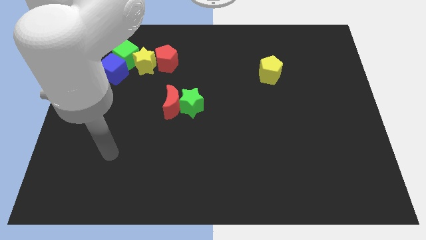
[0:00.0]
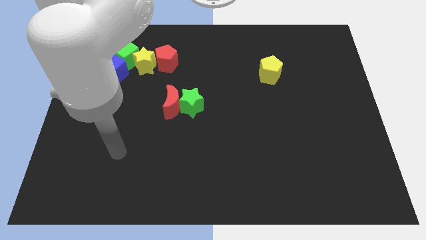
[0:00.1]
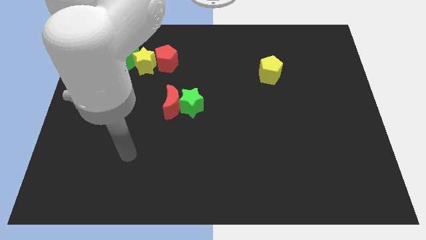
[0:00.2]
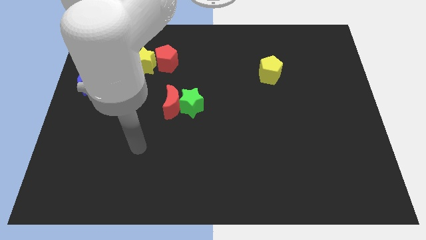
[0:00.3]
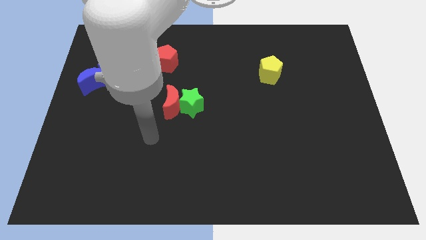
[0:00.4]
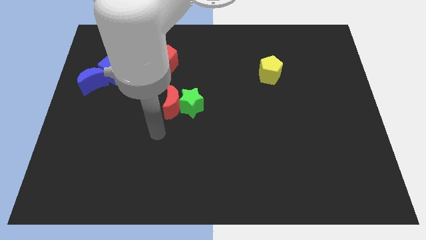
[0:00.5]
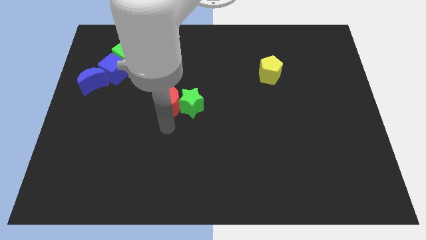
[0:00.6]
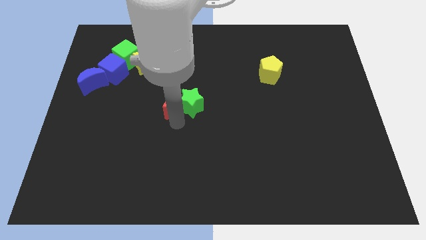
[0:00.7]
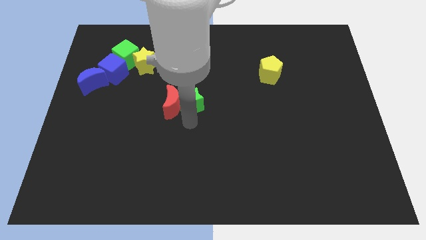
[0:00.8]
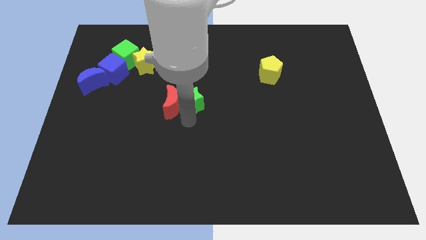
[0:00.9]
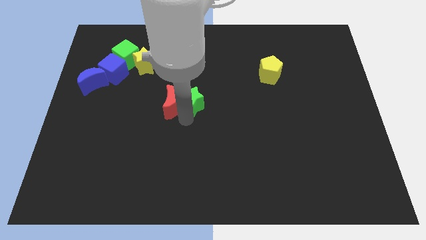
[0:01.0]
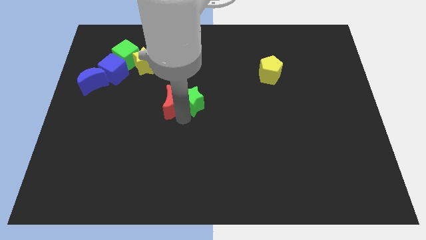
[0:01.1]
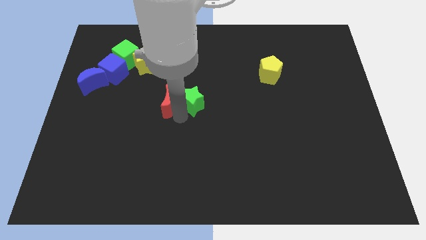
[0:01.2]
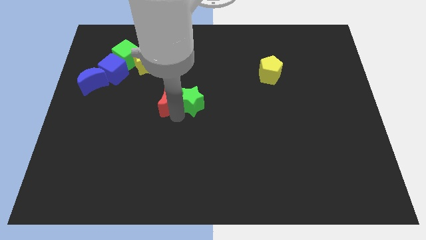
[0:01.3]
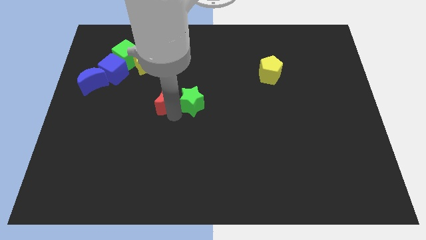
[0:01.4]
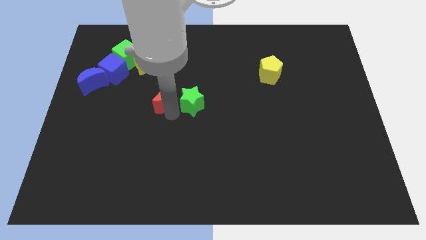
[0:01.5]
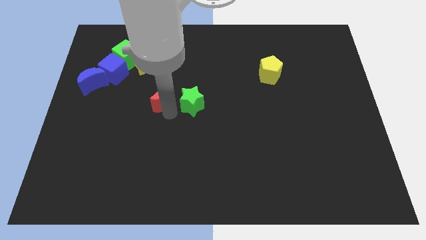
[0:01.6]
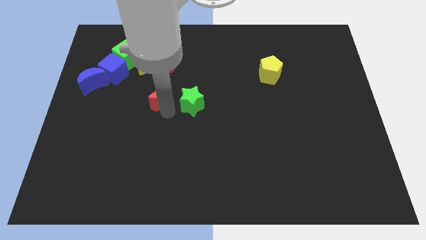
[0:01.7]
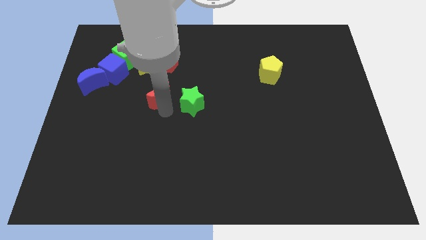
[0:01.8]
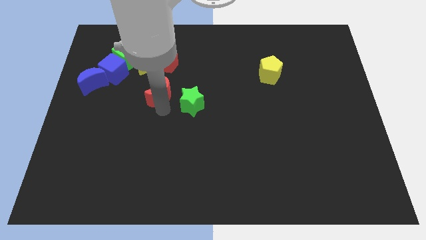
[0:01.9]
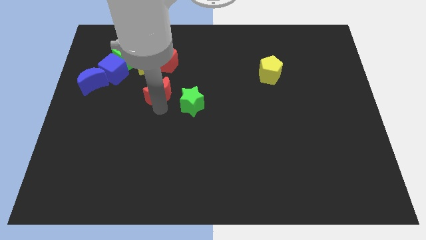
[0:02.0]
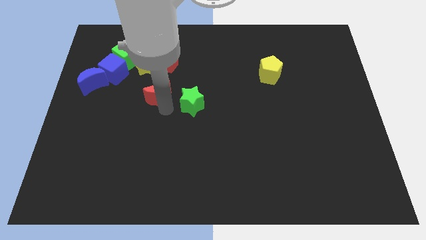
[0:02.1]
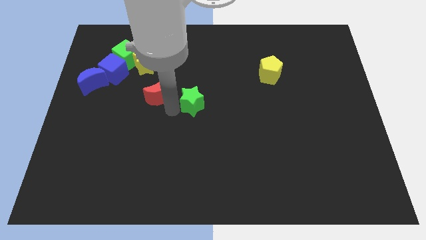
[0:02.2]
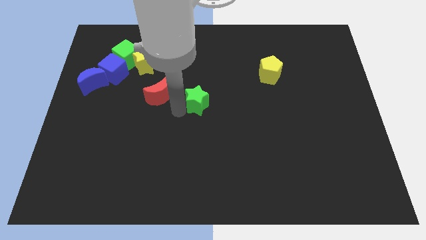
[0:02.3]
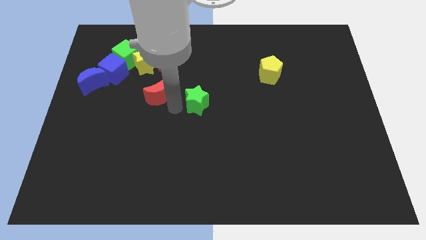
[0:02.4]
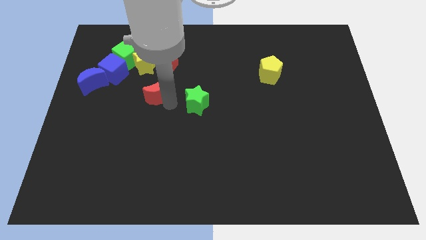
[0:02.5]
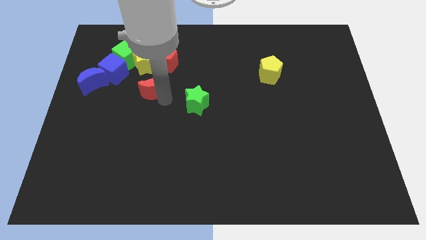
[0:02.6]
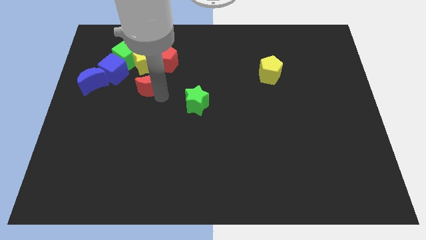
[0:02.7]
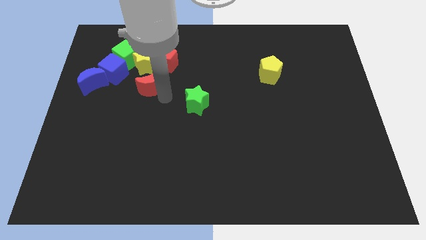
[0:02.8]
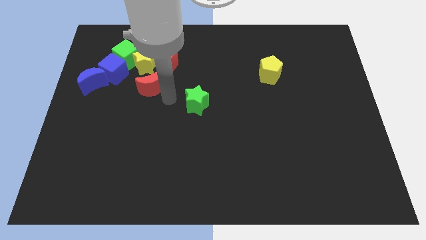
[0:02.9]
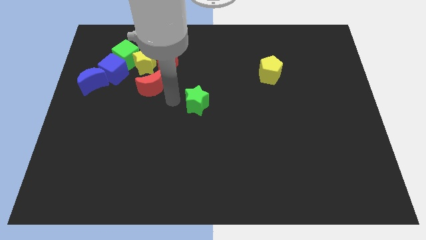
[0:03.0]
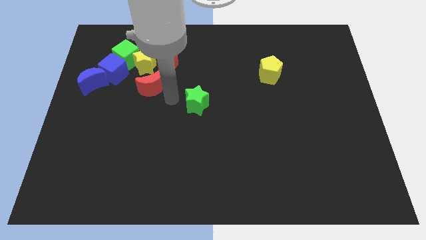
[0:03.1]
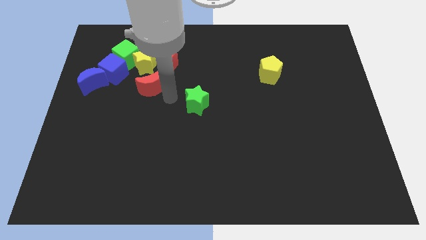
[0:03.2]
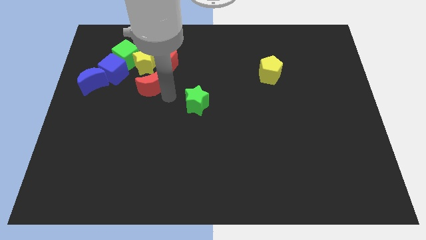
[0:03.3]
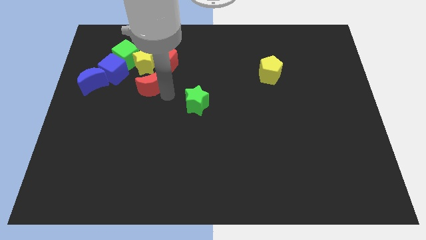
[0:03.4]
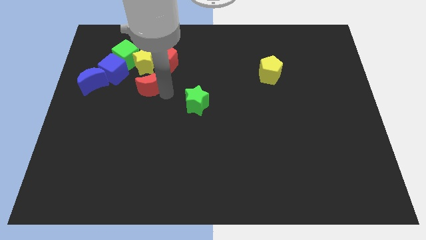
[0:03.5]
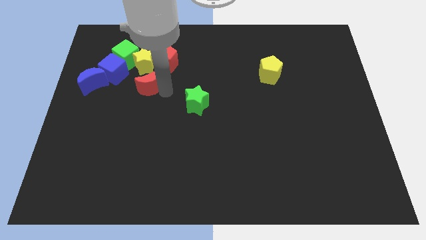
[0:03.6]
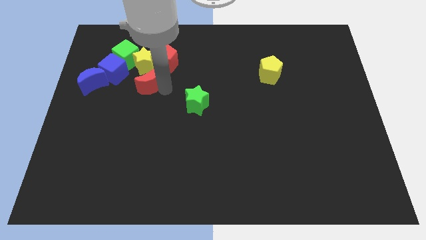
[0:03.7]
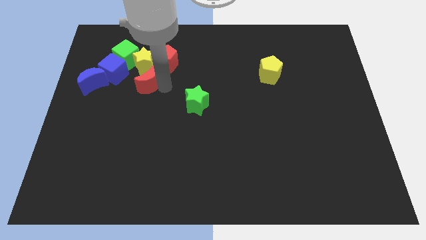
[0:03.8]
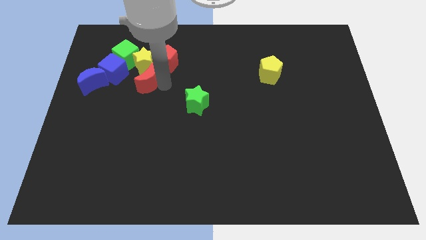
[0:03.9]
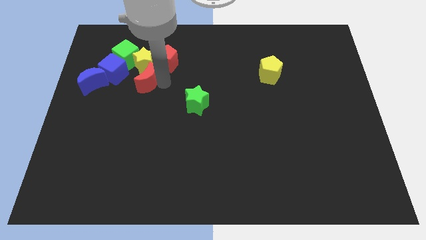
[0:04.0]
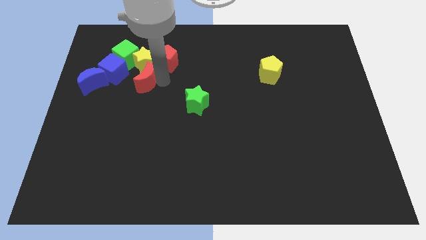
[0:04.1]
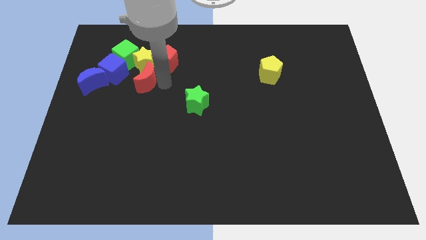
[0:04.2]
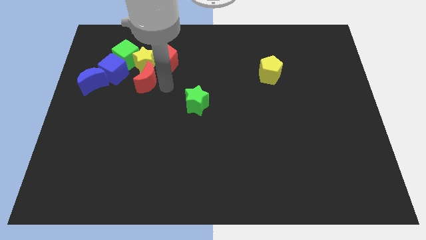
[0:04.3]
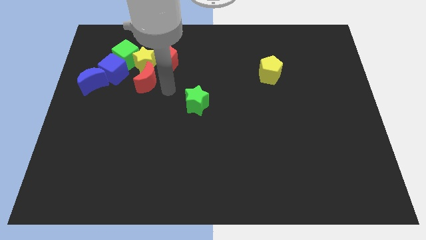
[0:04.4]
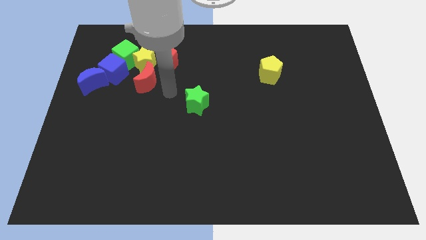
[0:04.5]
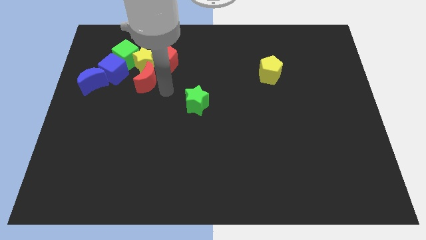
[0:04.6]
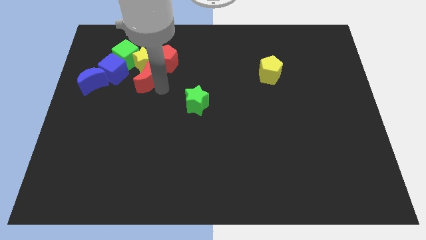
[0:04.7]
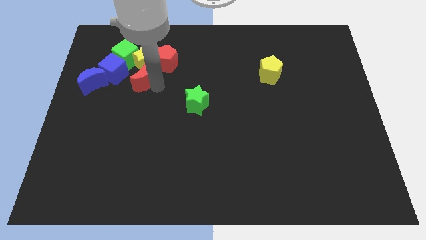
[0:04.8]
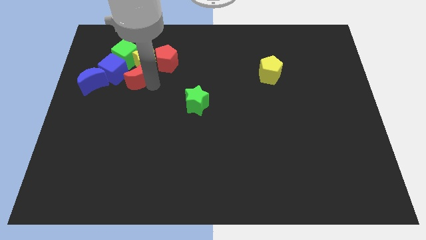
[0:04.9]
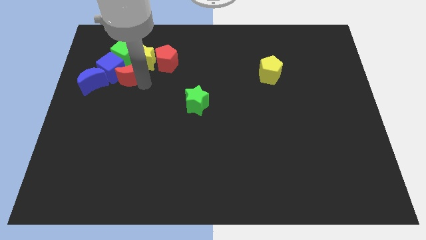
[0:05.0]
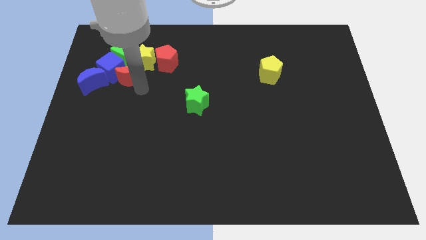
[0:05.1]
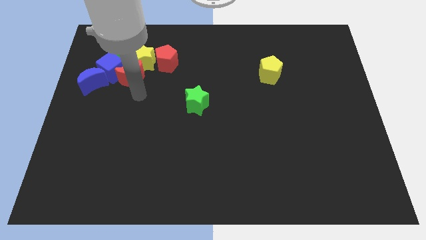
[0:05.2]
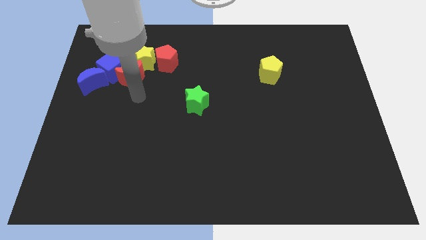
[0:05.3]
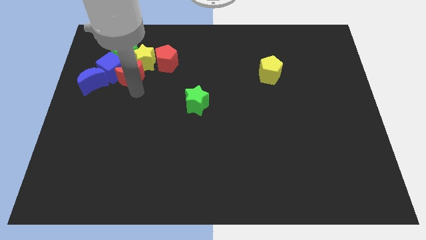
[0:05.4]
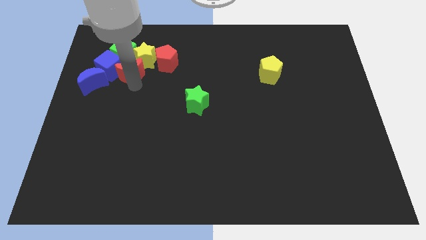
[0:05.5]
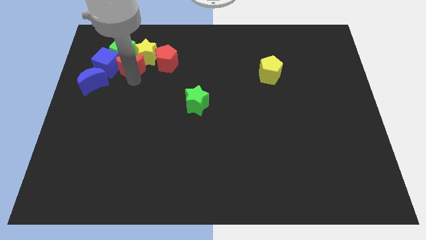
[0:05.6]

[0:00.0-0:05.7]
move the red moon close to the green cube

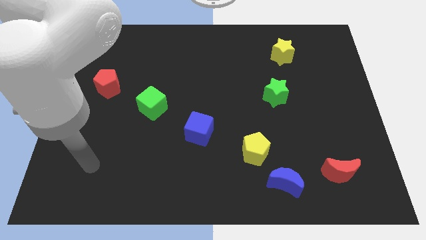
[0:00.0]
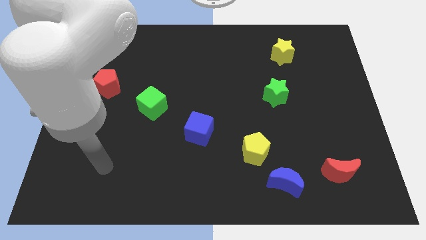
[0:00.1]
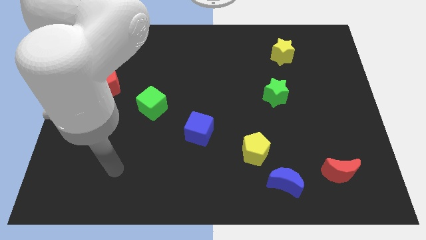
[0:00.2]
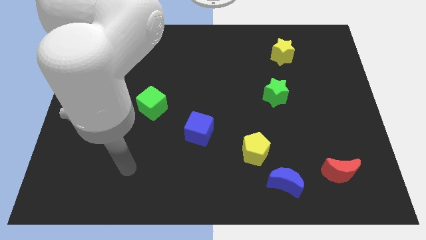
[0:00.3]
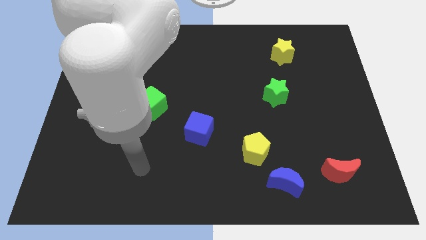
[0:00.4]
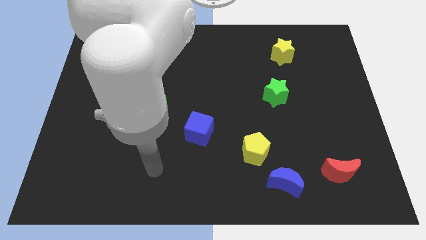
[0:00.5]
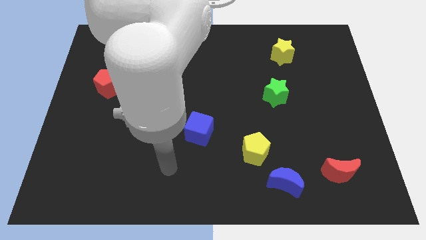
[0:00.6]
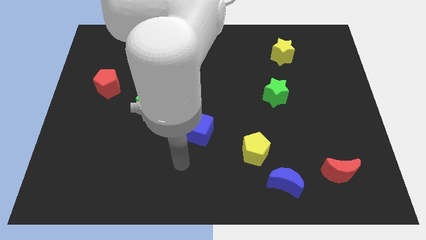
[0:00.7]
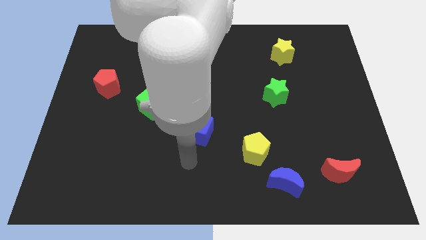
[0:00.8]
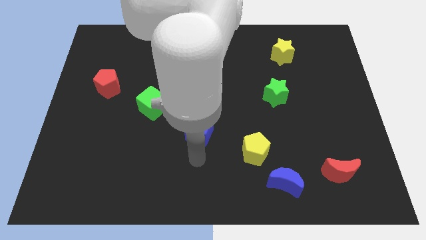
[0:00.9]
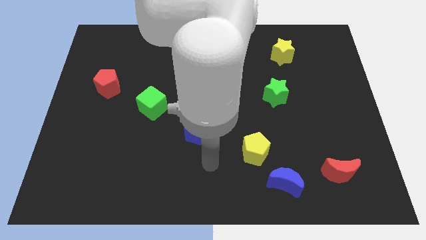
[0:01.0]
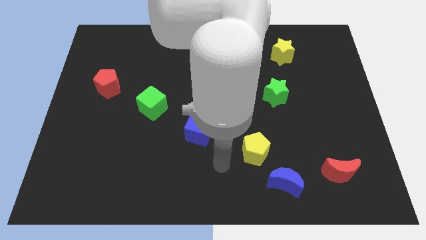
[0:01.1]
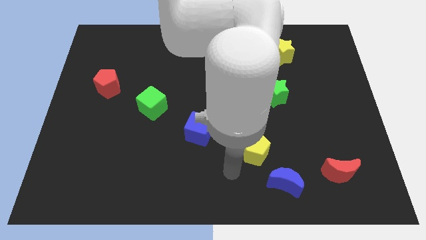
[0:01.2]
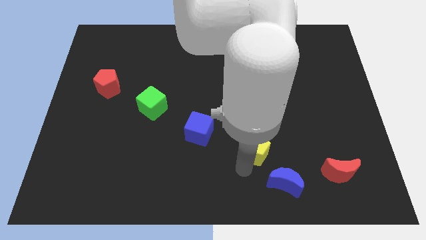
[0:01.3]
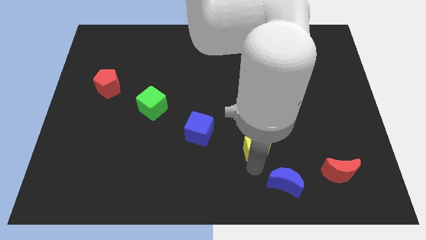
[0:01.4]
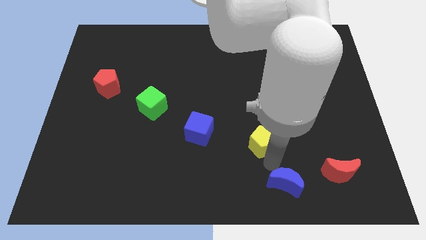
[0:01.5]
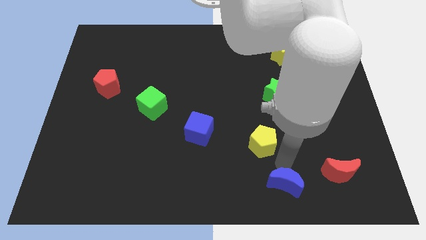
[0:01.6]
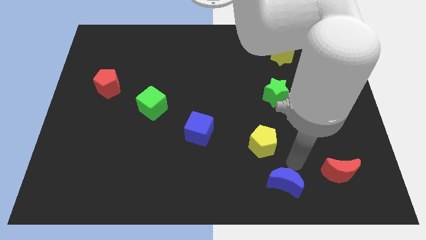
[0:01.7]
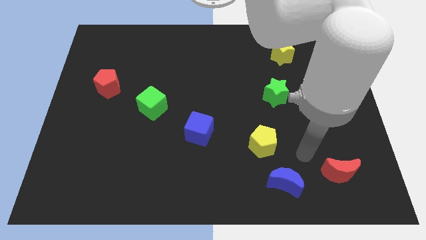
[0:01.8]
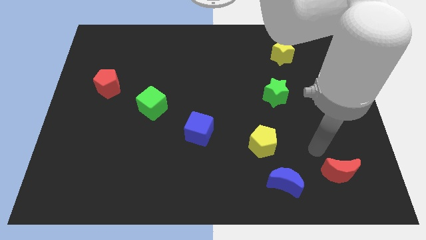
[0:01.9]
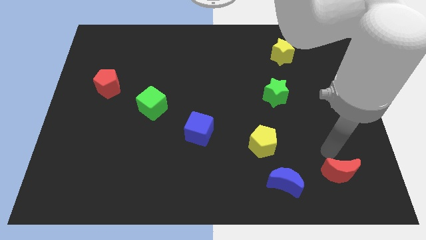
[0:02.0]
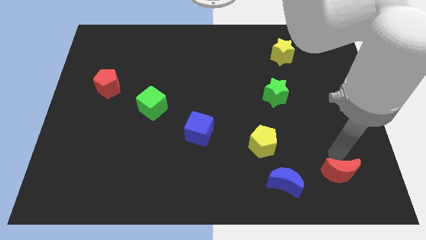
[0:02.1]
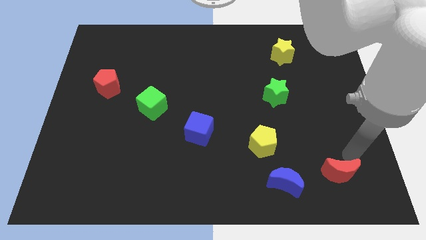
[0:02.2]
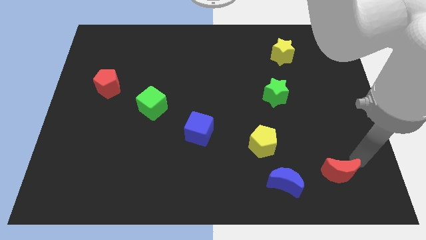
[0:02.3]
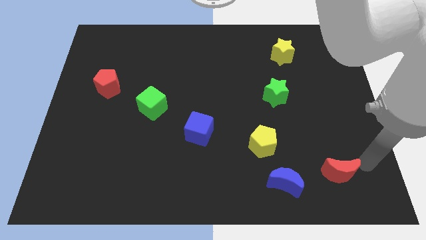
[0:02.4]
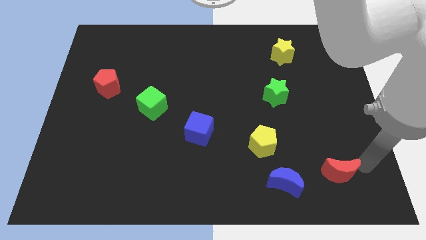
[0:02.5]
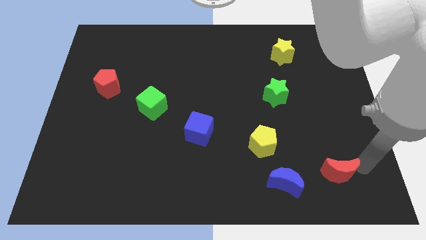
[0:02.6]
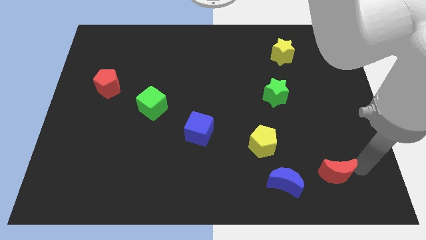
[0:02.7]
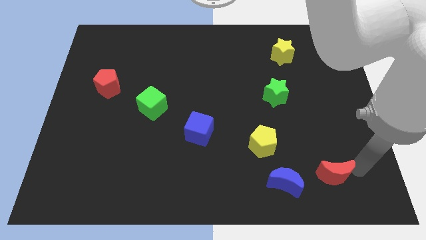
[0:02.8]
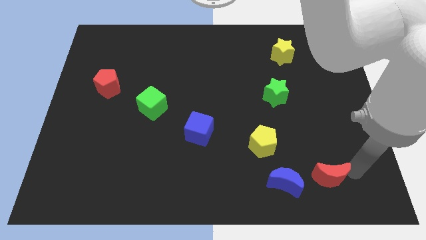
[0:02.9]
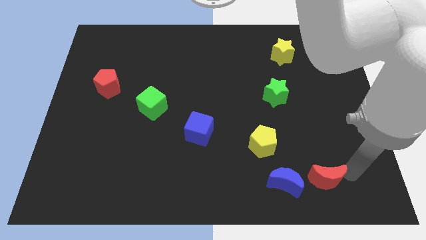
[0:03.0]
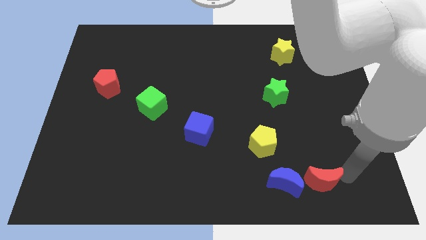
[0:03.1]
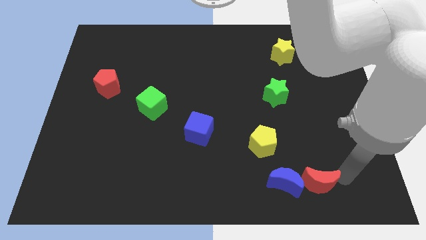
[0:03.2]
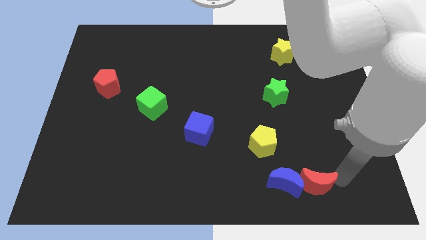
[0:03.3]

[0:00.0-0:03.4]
slide the red moon towards the blue moon
